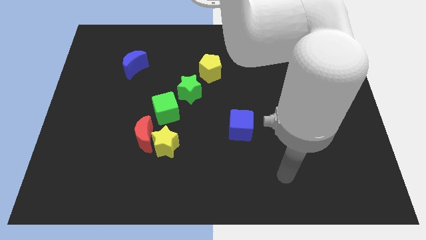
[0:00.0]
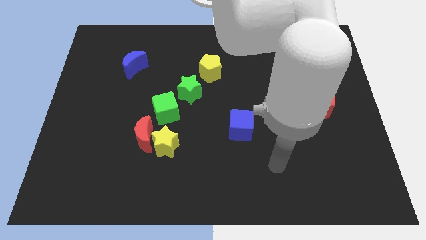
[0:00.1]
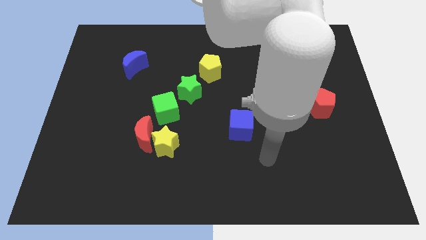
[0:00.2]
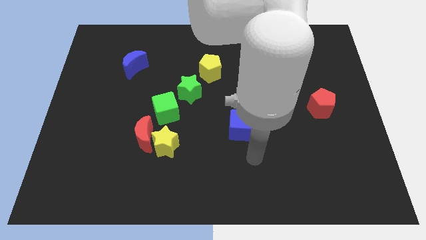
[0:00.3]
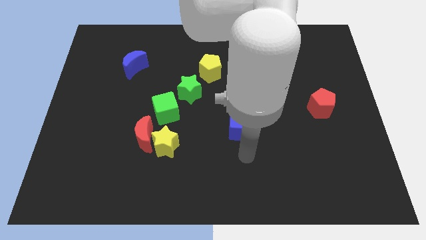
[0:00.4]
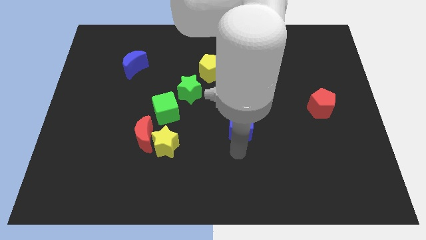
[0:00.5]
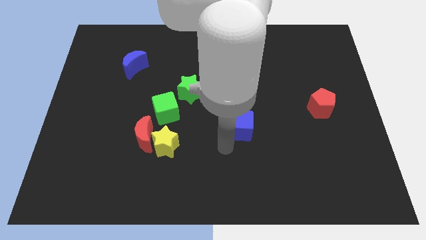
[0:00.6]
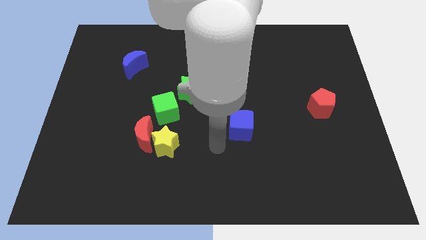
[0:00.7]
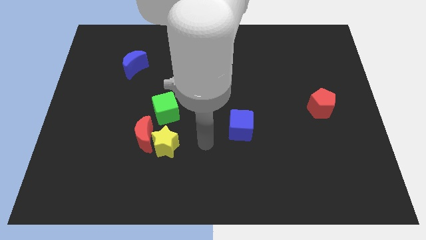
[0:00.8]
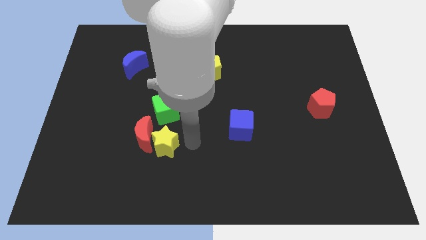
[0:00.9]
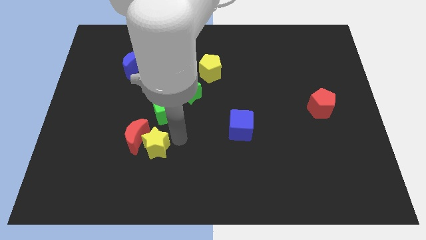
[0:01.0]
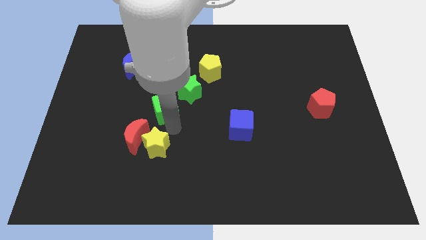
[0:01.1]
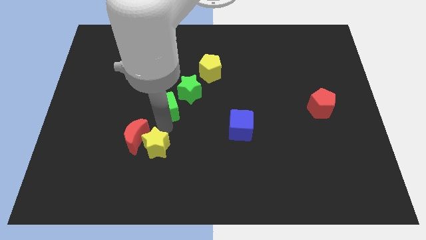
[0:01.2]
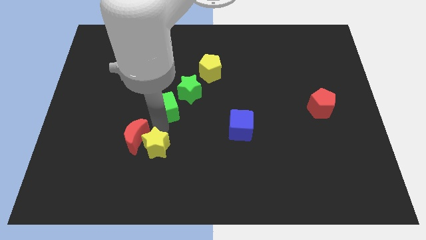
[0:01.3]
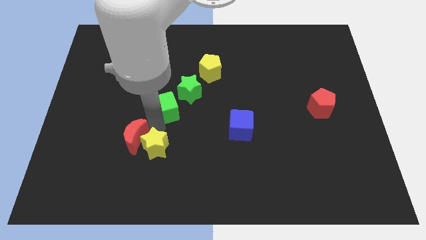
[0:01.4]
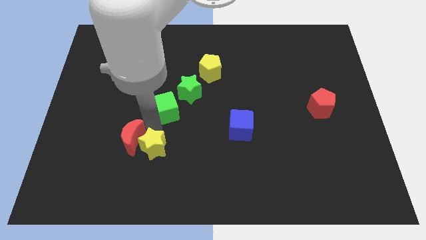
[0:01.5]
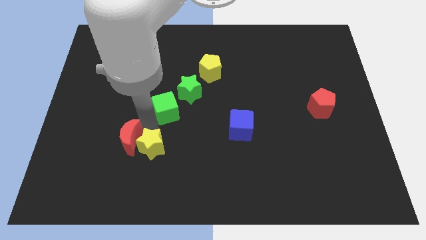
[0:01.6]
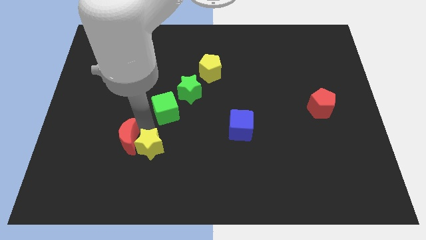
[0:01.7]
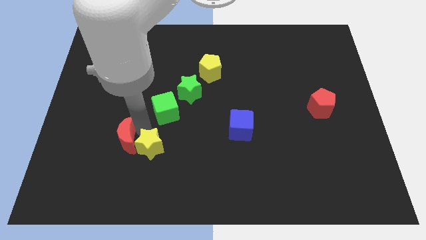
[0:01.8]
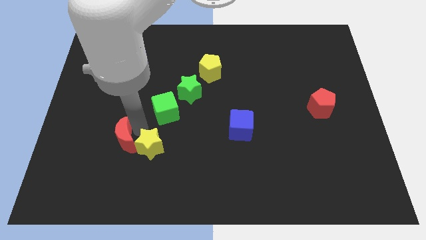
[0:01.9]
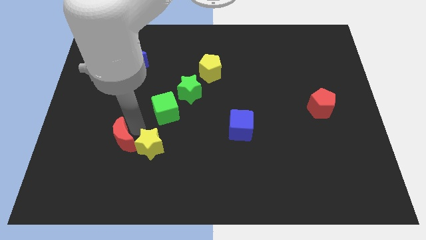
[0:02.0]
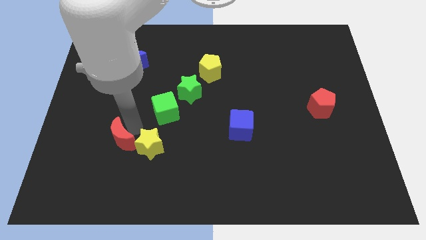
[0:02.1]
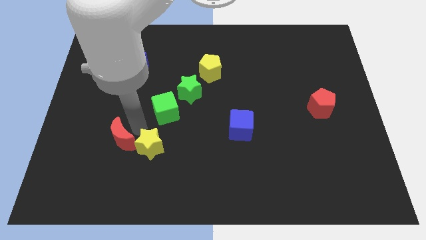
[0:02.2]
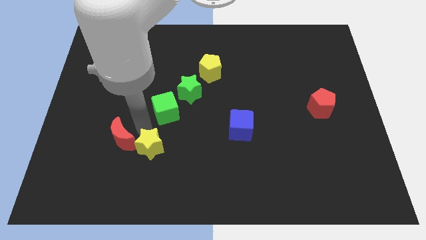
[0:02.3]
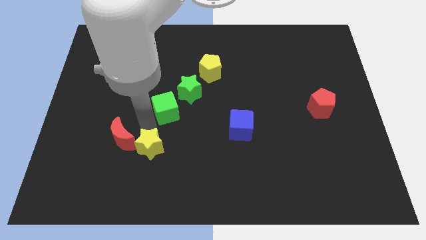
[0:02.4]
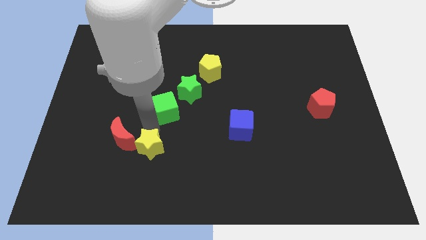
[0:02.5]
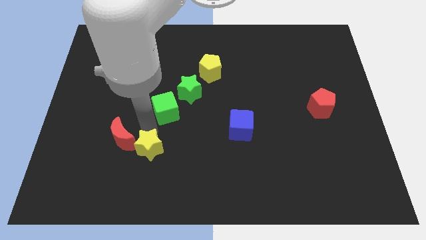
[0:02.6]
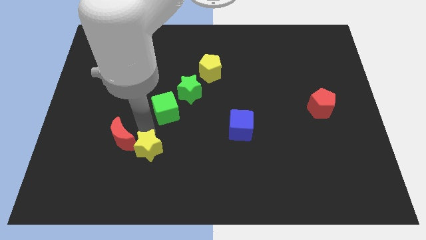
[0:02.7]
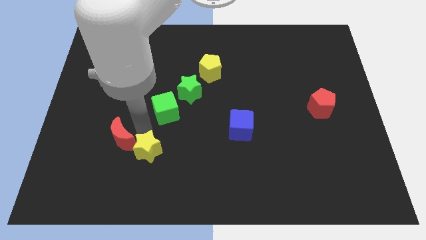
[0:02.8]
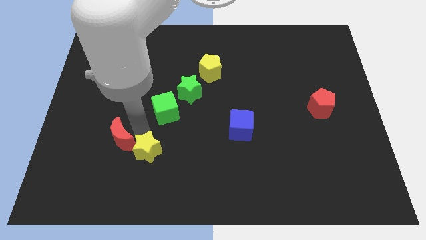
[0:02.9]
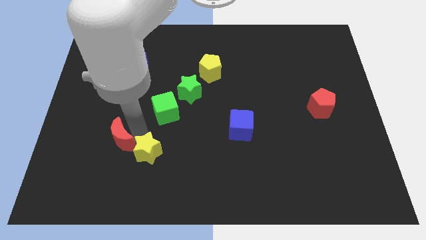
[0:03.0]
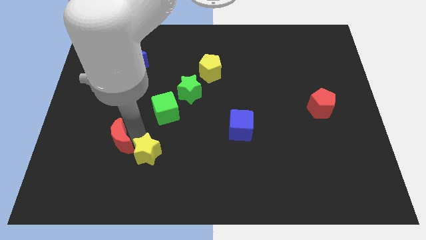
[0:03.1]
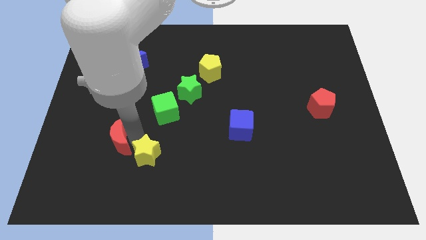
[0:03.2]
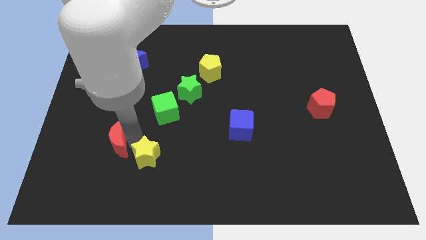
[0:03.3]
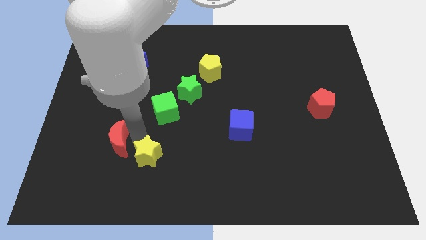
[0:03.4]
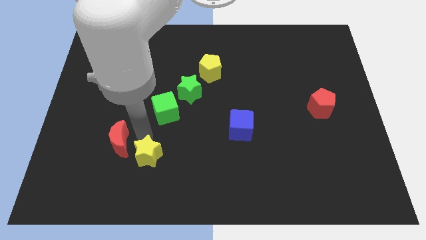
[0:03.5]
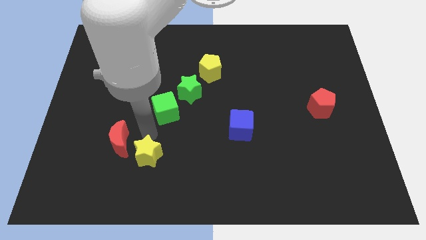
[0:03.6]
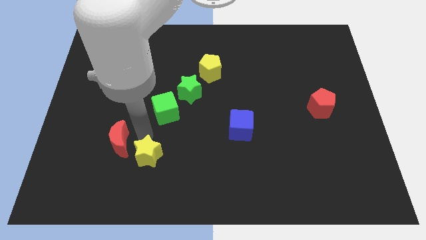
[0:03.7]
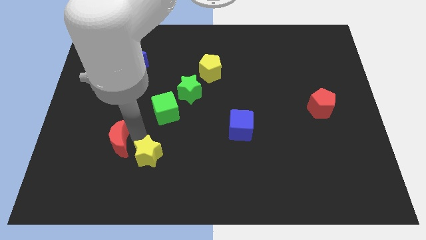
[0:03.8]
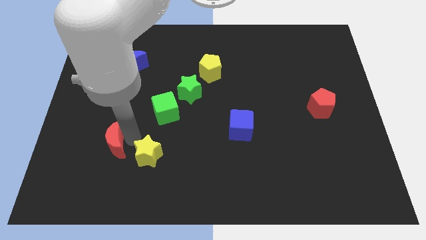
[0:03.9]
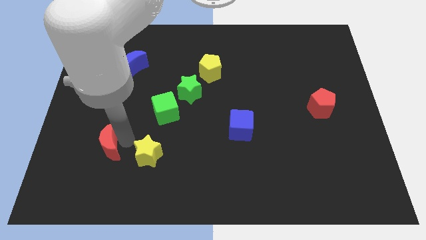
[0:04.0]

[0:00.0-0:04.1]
move the red moon away from the yellow star and green cube

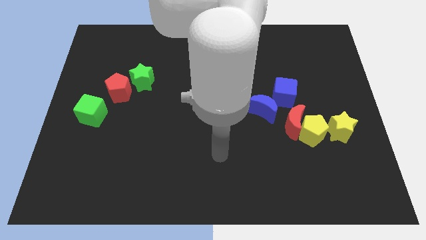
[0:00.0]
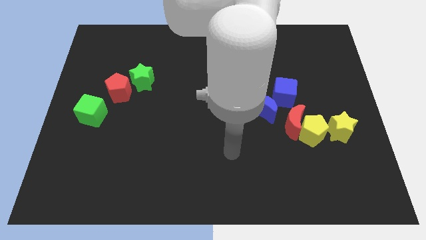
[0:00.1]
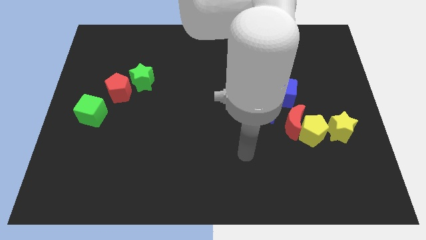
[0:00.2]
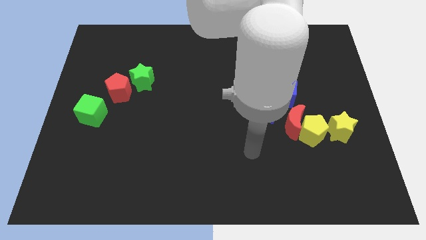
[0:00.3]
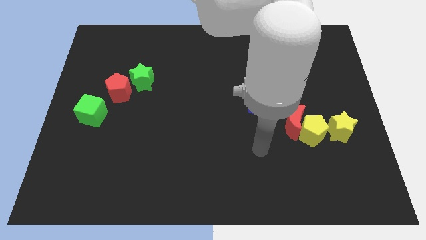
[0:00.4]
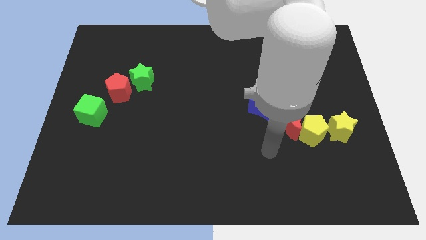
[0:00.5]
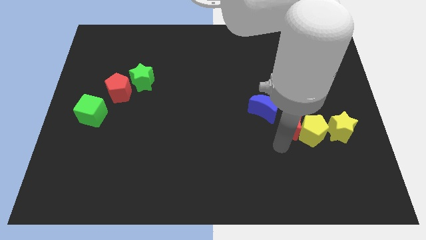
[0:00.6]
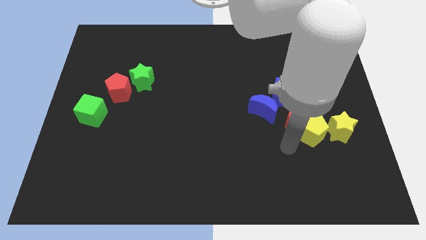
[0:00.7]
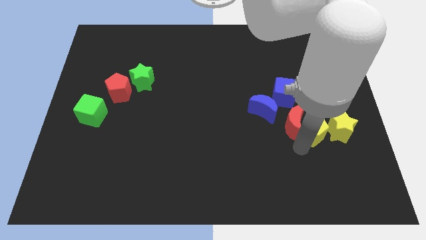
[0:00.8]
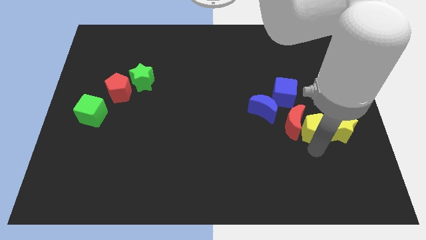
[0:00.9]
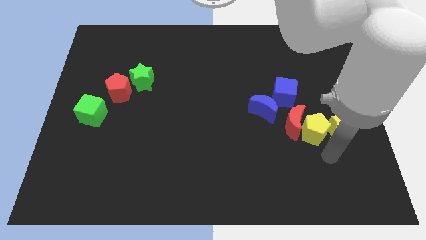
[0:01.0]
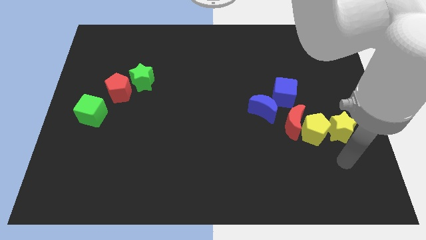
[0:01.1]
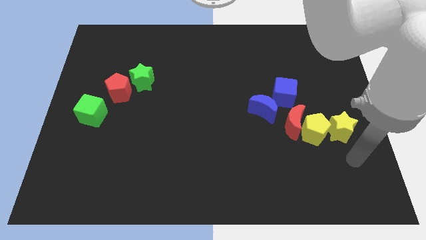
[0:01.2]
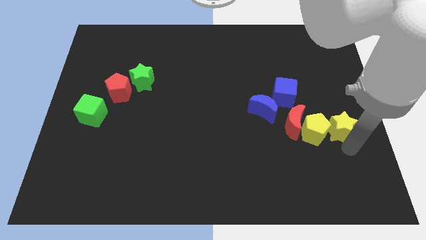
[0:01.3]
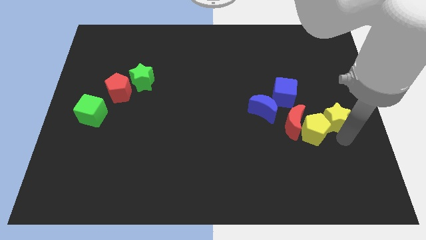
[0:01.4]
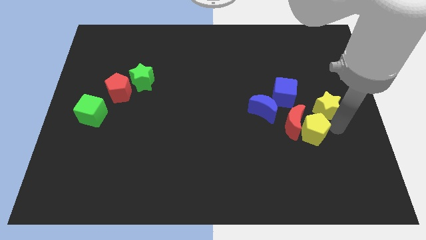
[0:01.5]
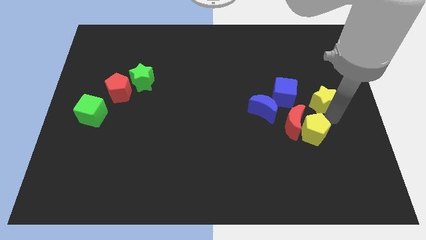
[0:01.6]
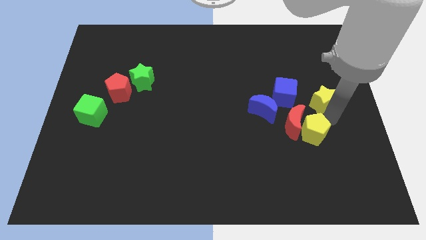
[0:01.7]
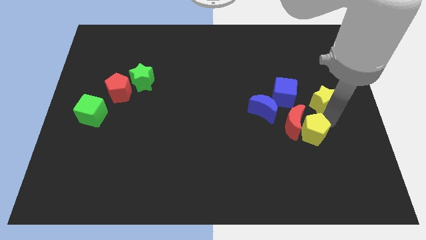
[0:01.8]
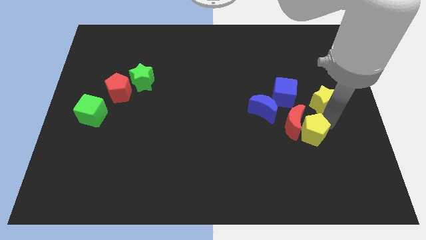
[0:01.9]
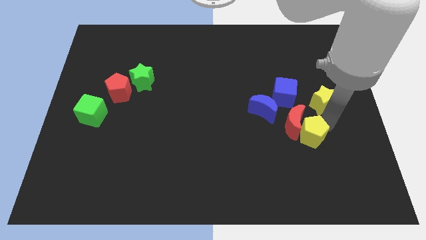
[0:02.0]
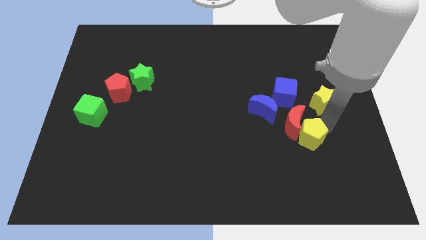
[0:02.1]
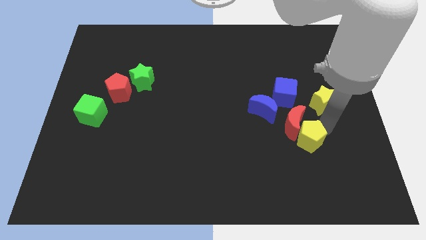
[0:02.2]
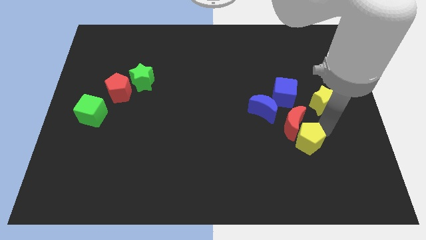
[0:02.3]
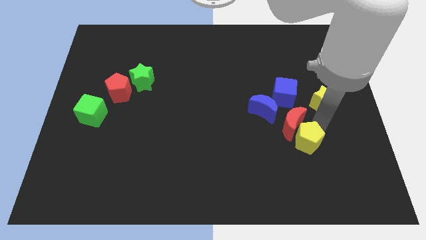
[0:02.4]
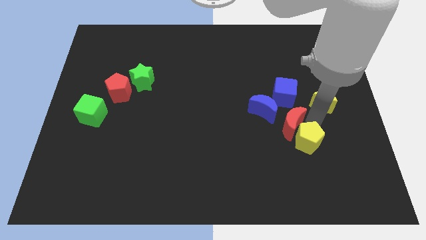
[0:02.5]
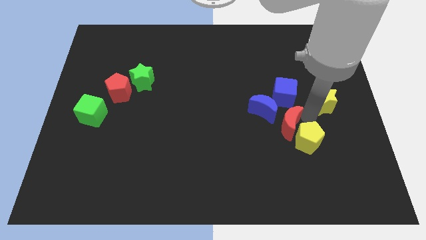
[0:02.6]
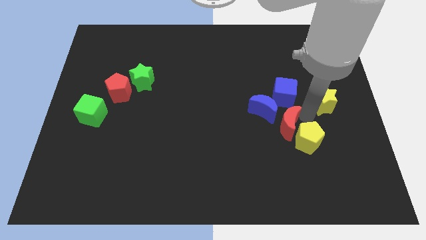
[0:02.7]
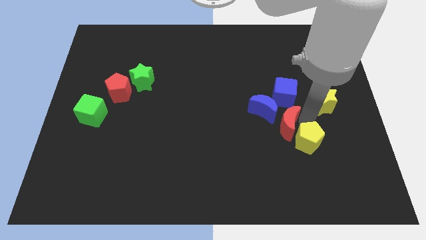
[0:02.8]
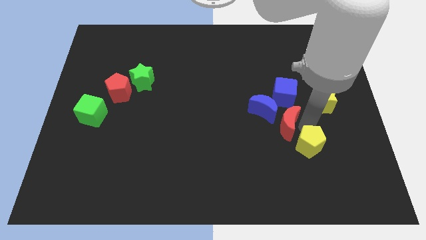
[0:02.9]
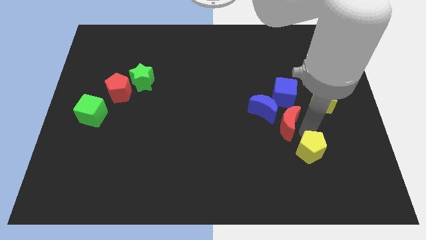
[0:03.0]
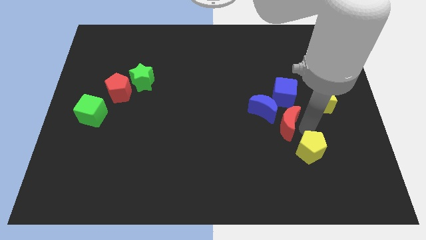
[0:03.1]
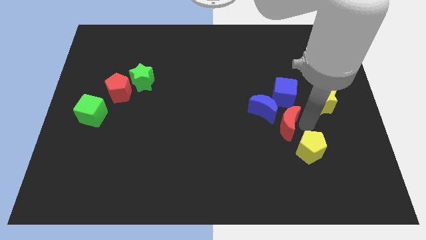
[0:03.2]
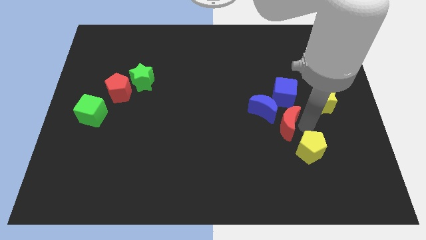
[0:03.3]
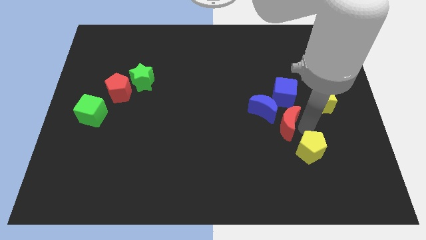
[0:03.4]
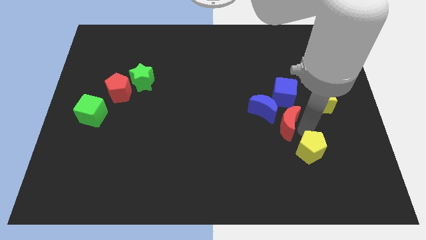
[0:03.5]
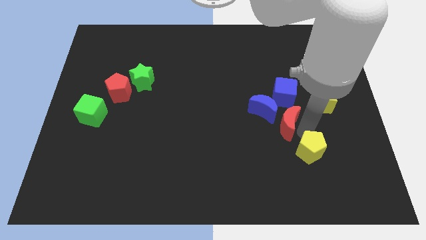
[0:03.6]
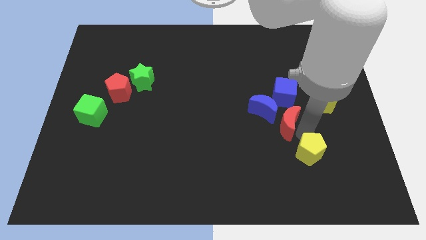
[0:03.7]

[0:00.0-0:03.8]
move the yellow pentagon away from the red moon and yellow star

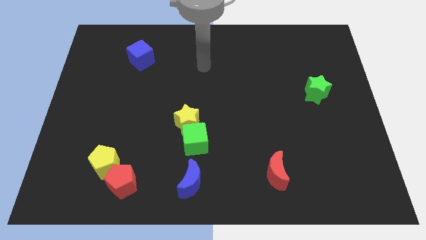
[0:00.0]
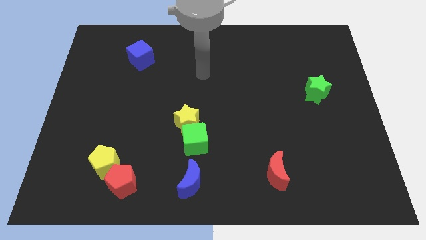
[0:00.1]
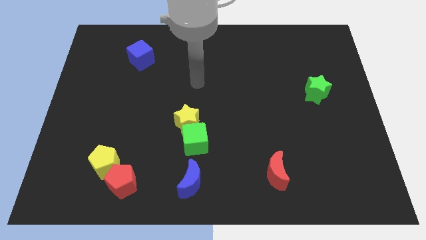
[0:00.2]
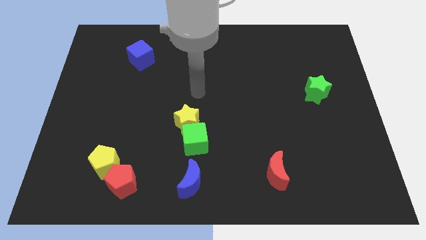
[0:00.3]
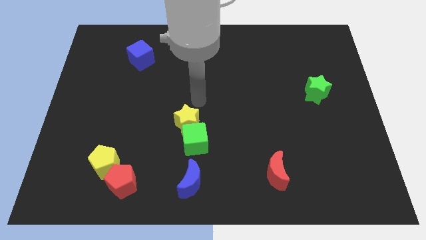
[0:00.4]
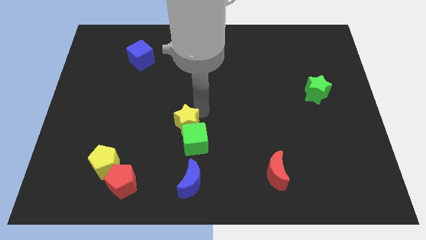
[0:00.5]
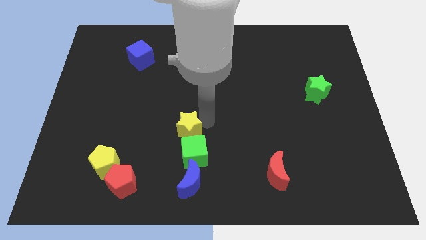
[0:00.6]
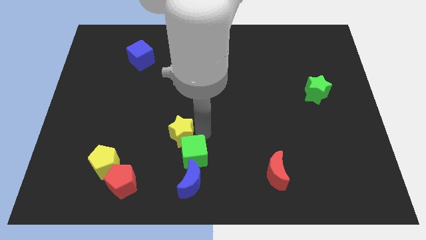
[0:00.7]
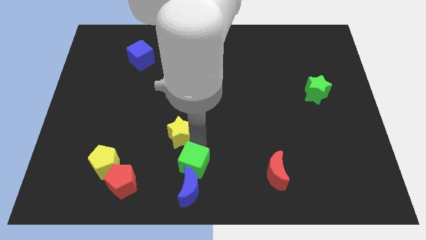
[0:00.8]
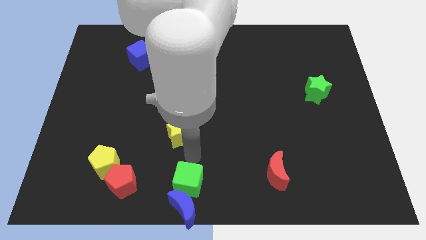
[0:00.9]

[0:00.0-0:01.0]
separate the yellow star from the green cube

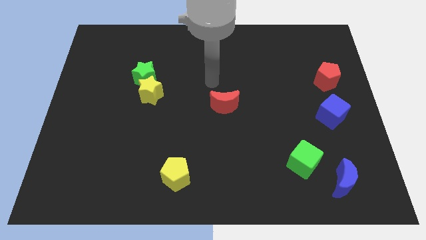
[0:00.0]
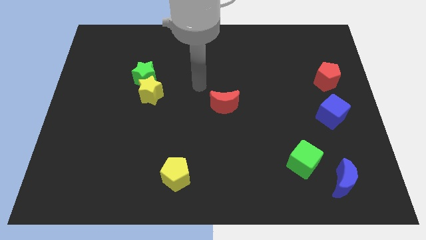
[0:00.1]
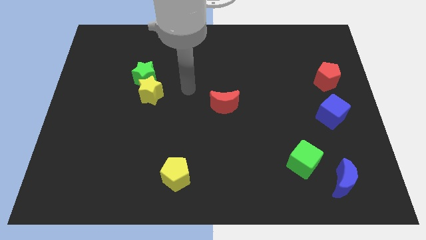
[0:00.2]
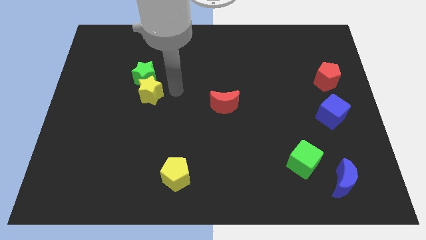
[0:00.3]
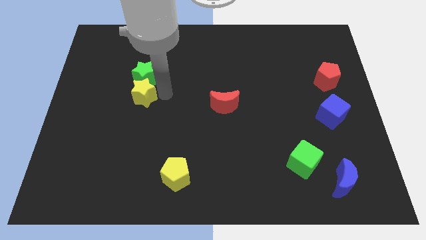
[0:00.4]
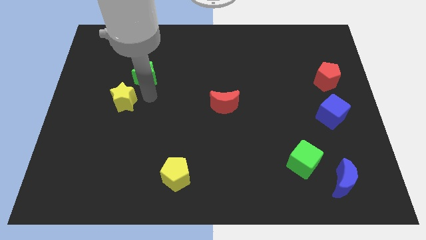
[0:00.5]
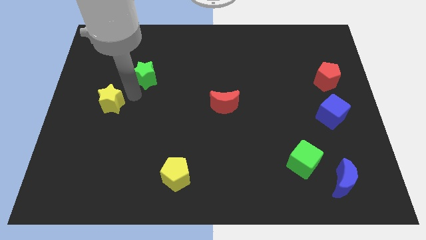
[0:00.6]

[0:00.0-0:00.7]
move the green star away from the yellow star

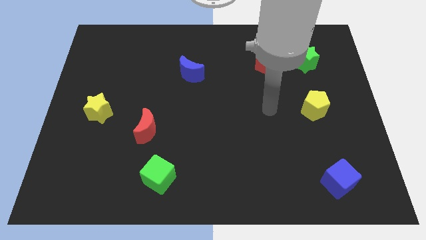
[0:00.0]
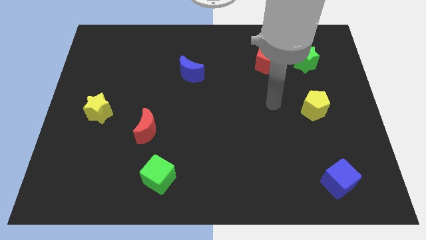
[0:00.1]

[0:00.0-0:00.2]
move the red pentagon away from the green star
